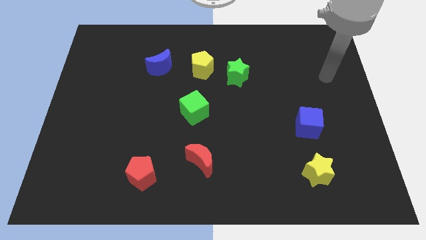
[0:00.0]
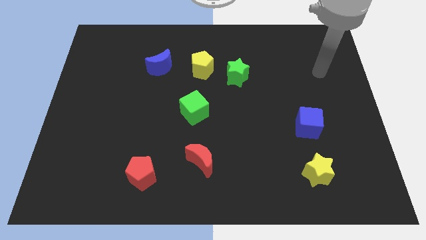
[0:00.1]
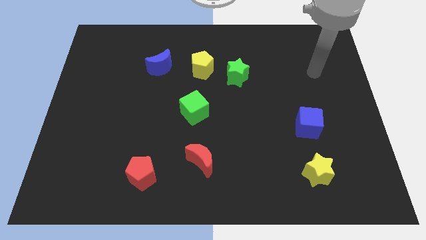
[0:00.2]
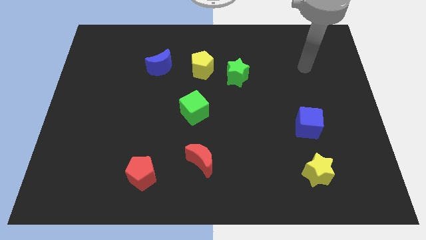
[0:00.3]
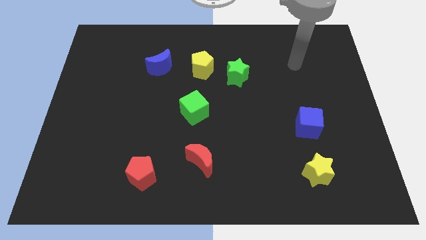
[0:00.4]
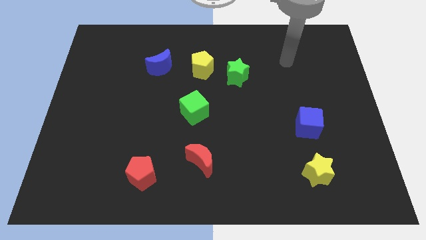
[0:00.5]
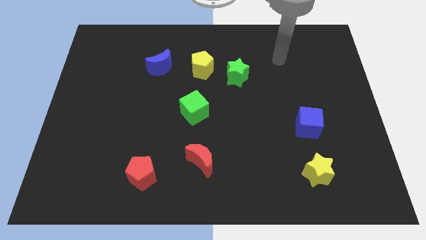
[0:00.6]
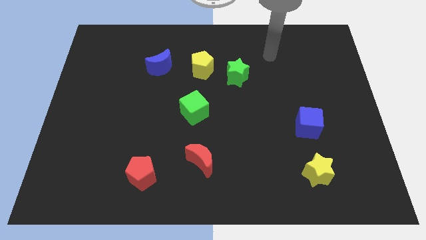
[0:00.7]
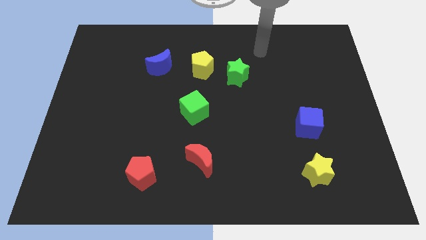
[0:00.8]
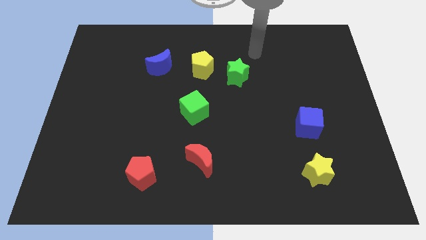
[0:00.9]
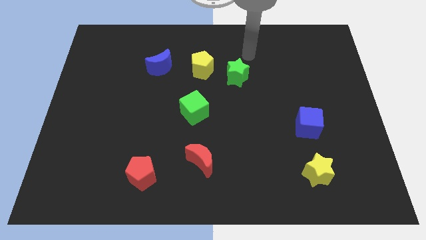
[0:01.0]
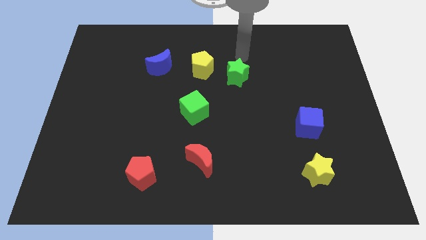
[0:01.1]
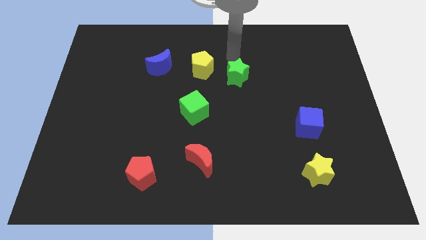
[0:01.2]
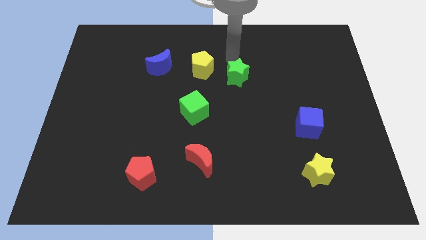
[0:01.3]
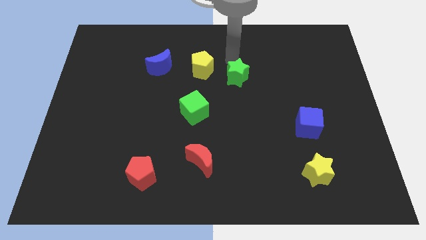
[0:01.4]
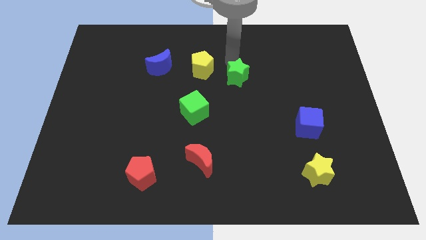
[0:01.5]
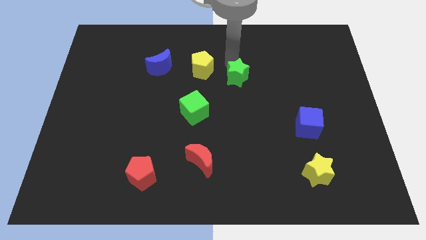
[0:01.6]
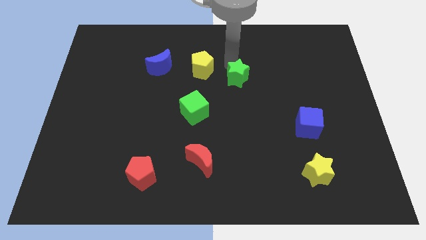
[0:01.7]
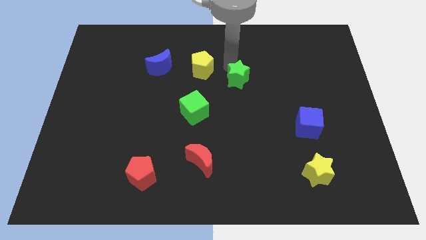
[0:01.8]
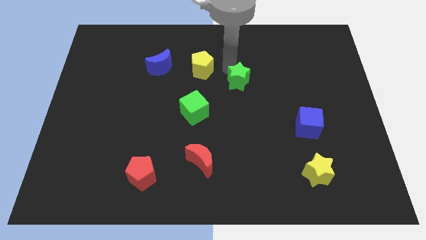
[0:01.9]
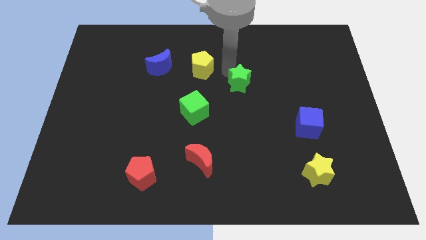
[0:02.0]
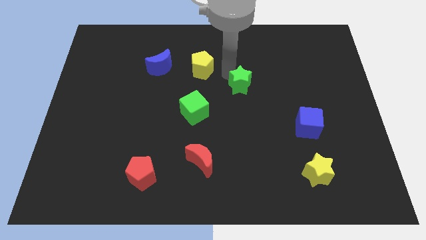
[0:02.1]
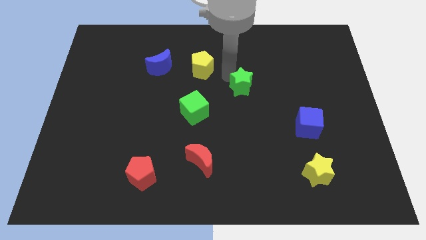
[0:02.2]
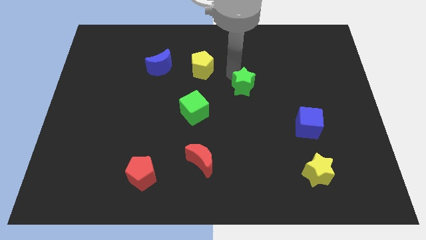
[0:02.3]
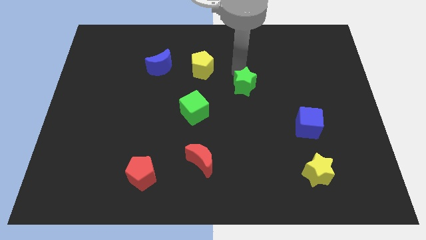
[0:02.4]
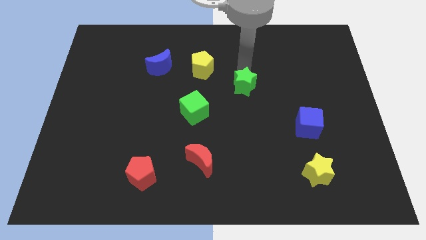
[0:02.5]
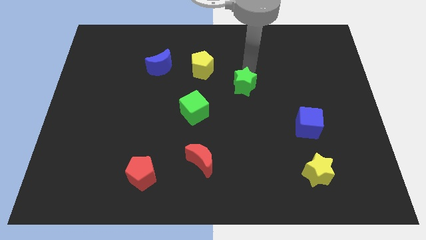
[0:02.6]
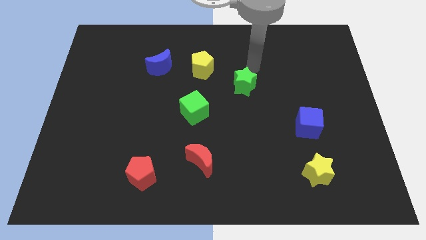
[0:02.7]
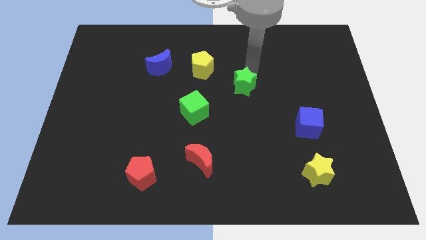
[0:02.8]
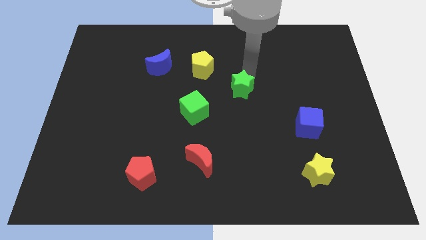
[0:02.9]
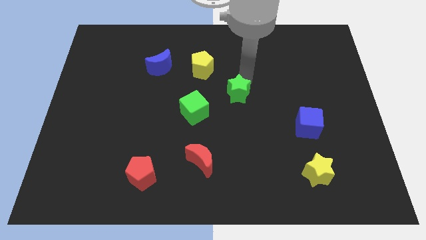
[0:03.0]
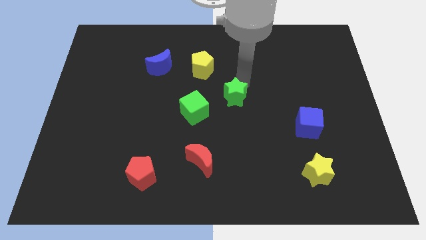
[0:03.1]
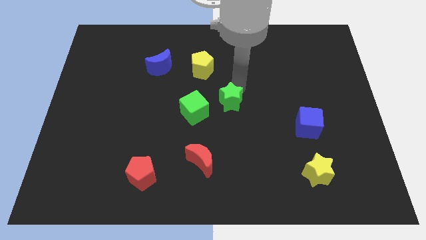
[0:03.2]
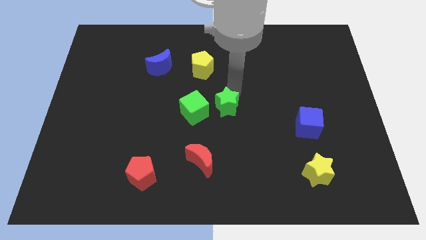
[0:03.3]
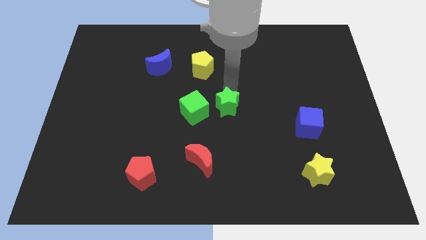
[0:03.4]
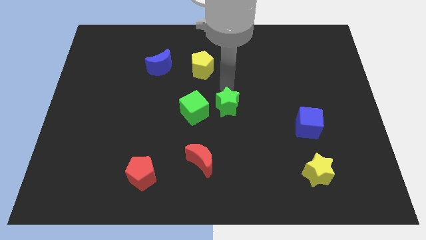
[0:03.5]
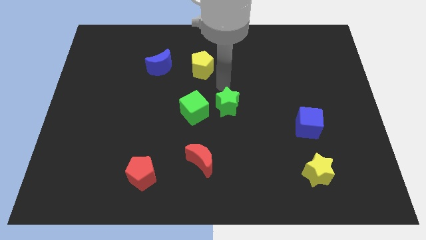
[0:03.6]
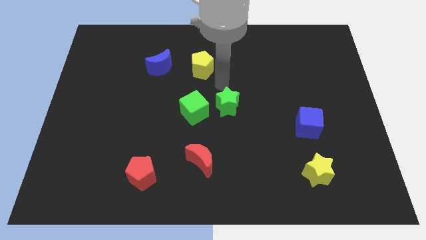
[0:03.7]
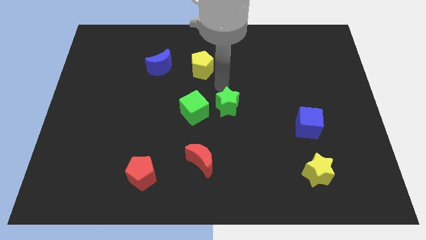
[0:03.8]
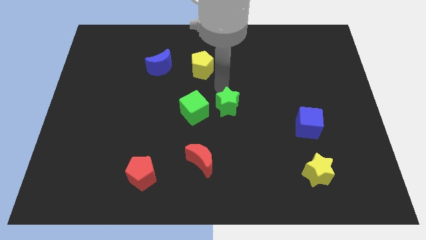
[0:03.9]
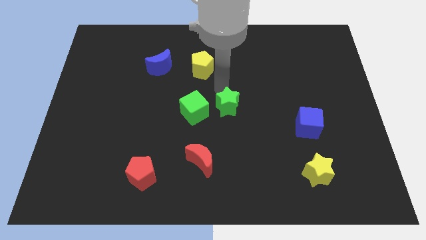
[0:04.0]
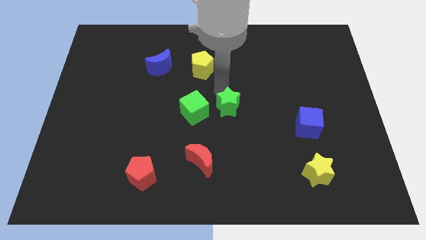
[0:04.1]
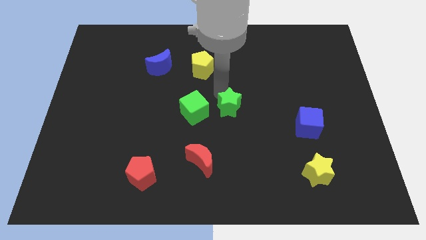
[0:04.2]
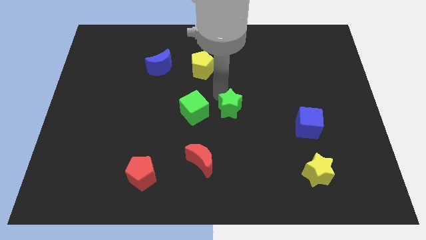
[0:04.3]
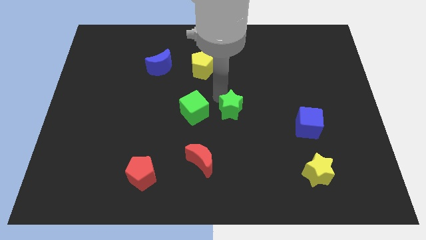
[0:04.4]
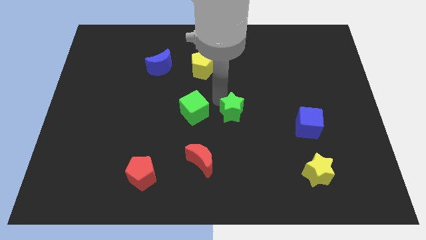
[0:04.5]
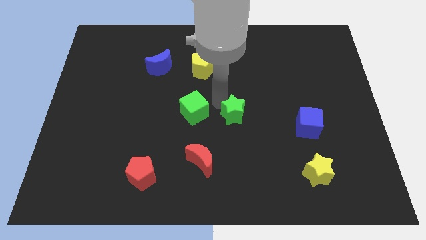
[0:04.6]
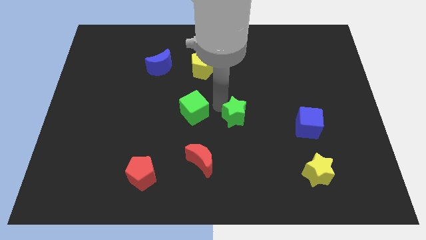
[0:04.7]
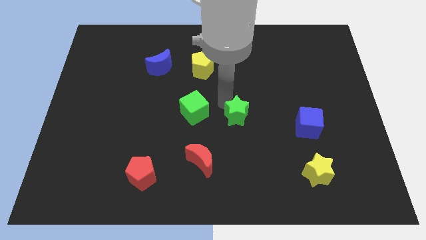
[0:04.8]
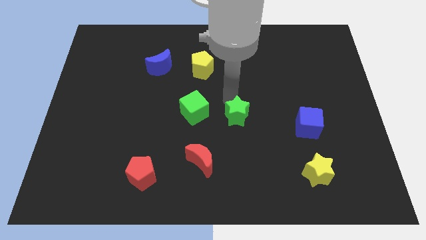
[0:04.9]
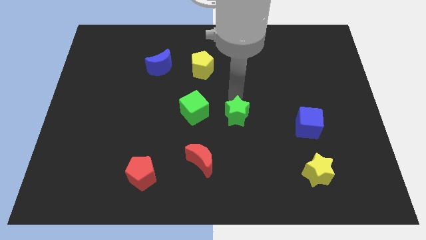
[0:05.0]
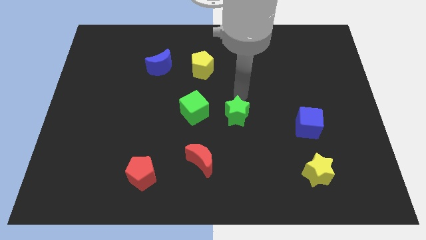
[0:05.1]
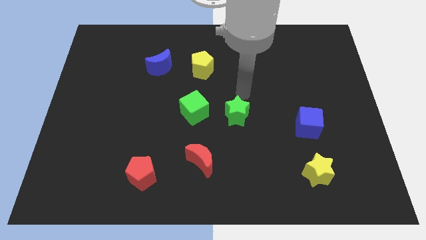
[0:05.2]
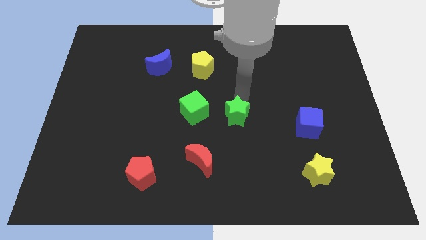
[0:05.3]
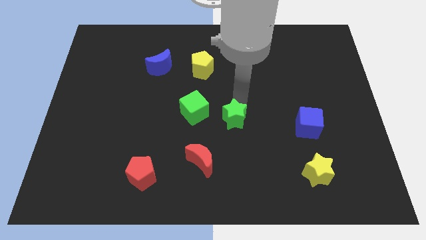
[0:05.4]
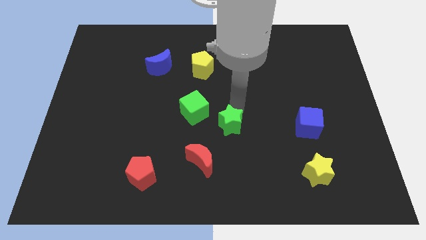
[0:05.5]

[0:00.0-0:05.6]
slide the green star diagonally up and to the right of the red moon

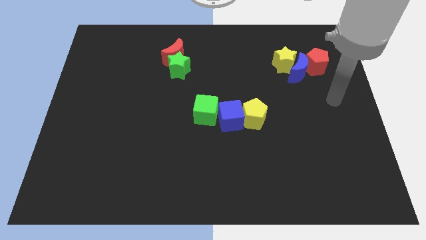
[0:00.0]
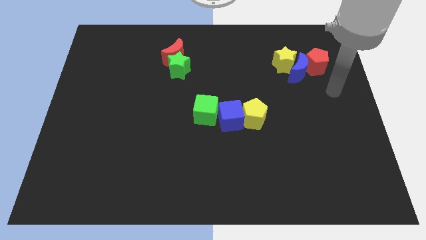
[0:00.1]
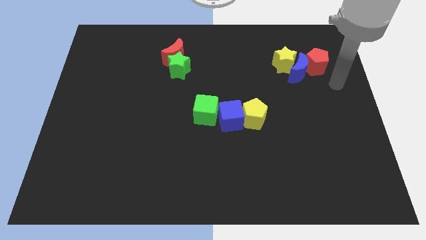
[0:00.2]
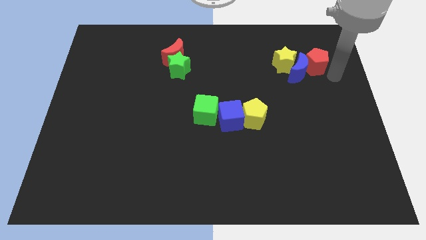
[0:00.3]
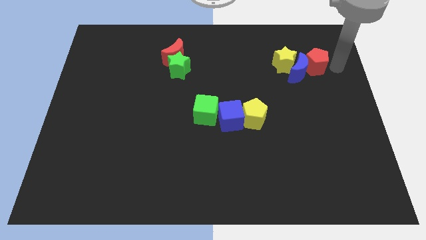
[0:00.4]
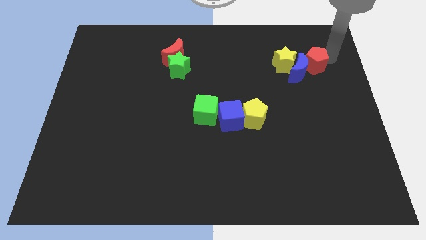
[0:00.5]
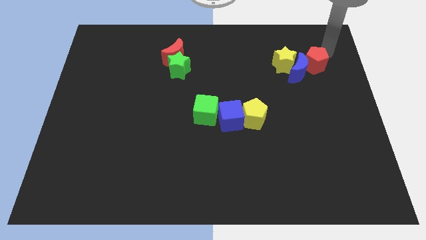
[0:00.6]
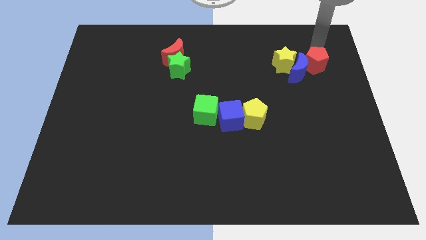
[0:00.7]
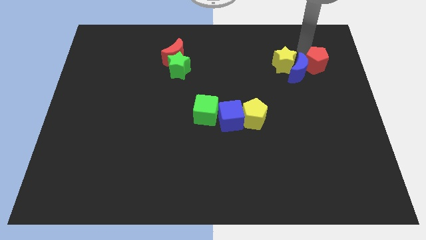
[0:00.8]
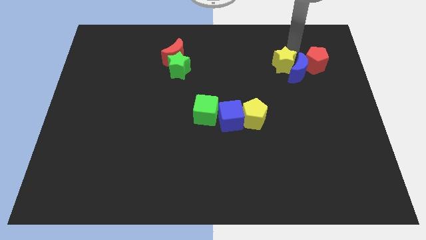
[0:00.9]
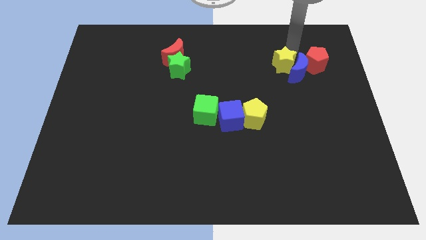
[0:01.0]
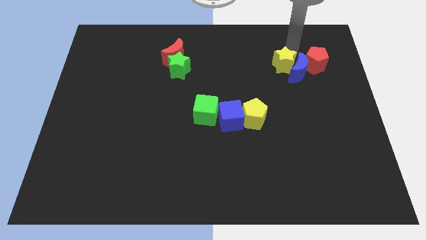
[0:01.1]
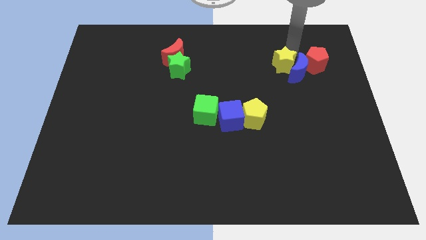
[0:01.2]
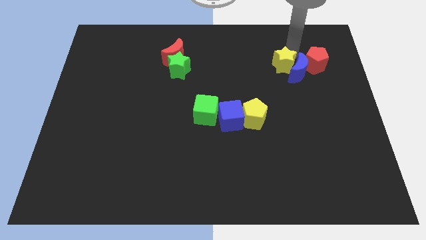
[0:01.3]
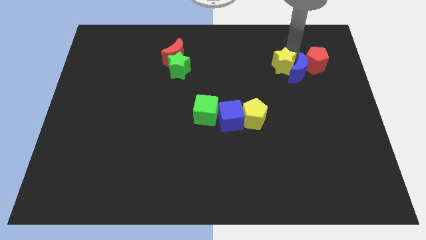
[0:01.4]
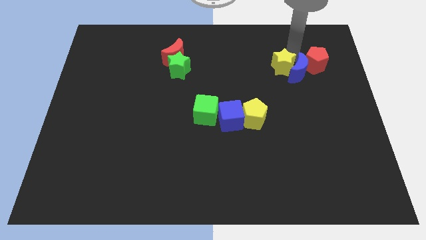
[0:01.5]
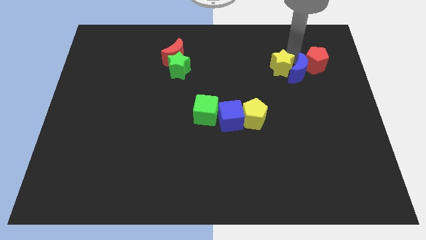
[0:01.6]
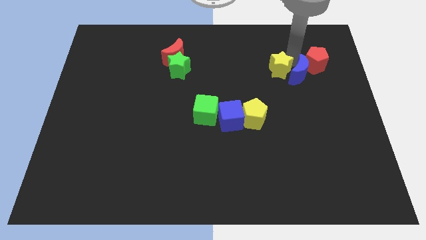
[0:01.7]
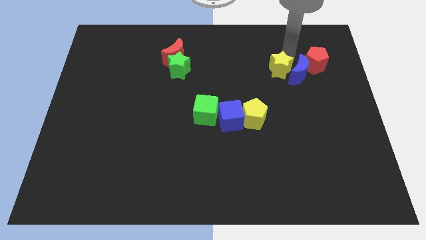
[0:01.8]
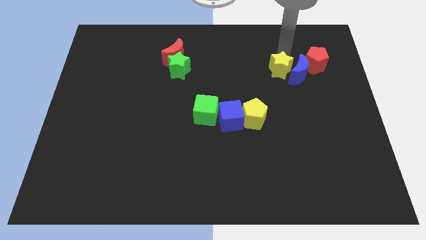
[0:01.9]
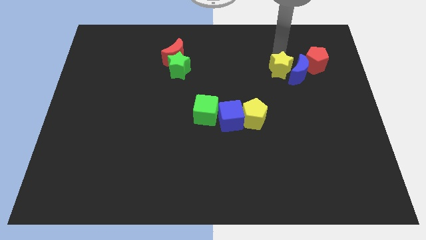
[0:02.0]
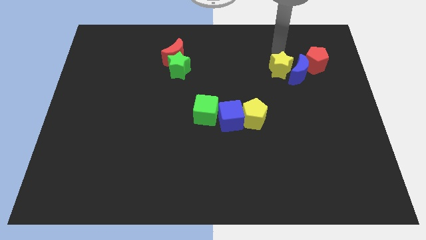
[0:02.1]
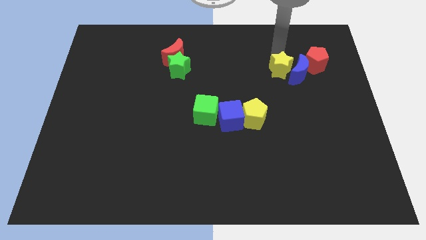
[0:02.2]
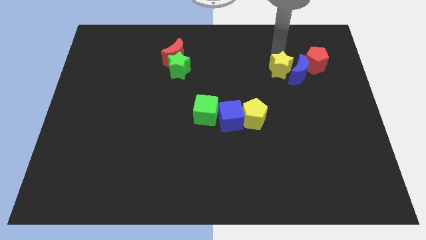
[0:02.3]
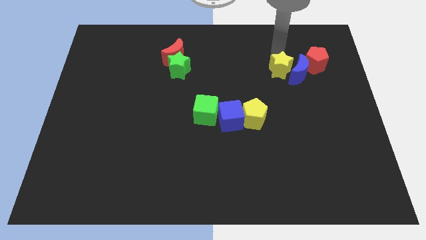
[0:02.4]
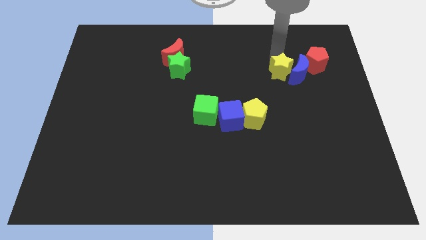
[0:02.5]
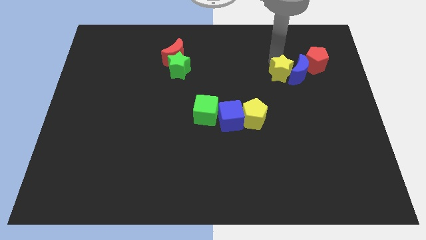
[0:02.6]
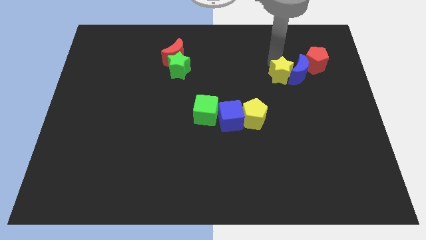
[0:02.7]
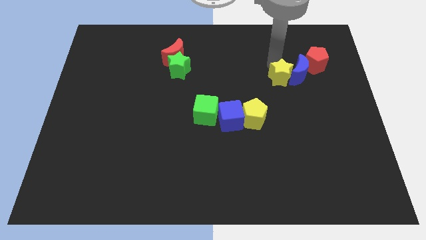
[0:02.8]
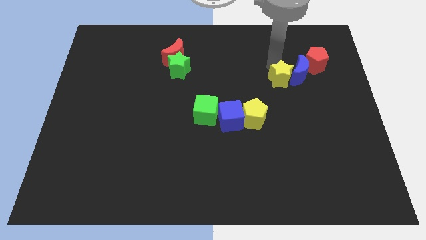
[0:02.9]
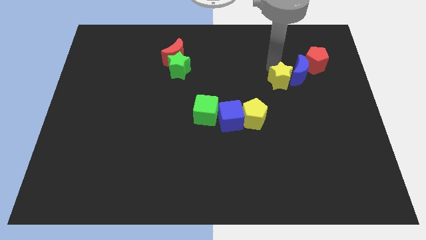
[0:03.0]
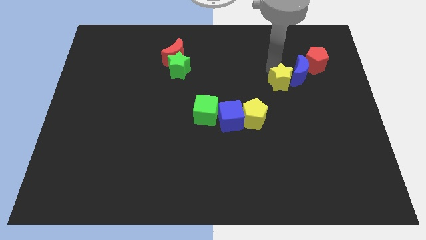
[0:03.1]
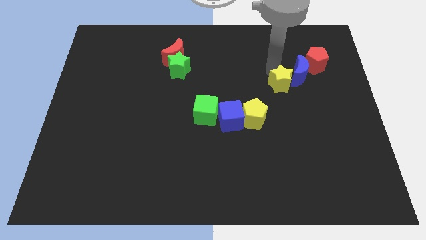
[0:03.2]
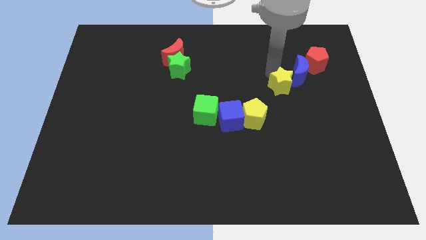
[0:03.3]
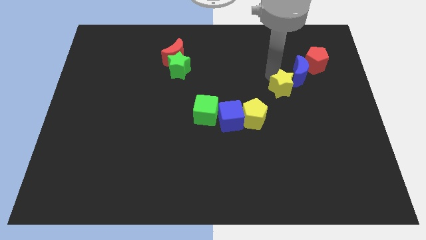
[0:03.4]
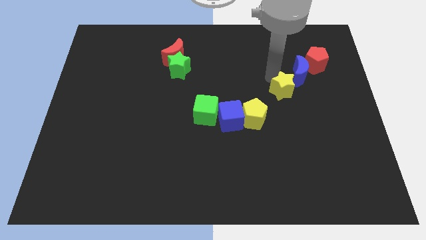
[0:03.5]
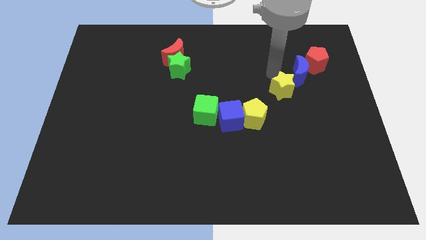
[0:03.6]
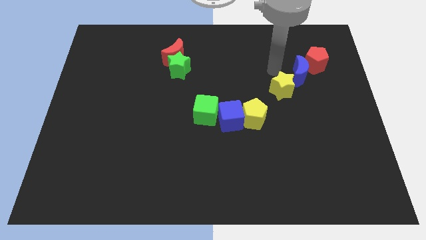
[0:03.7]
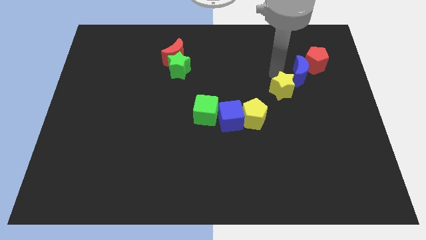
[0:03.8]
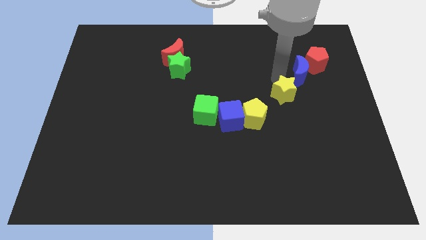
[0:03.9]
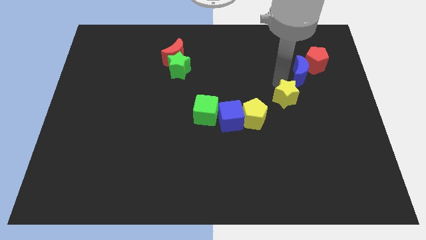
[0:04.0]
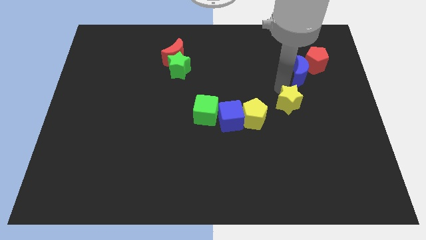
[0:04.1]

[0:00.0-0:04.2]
slide the yellow star to the right side of the yellow pentagon
